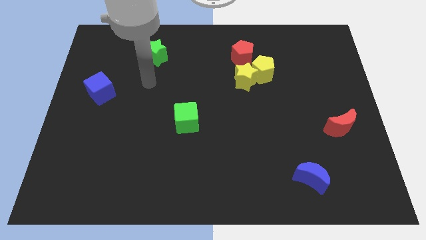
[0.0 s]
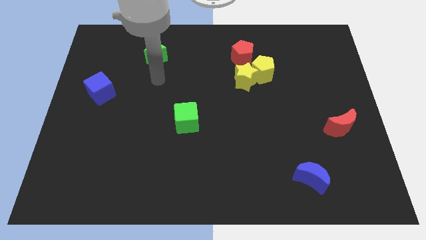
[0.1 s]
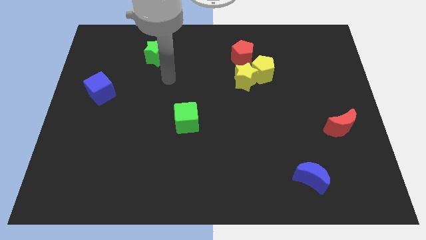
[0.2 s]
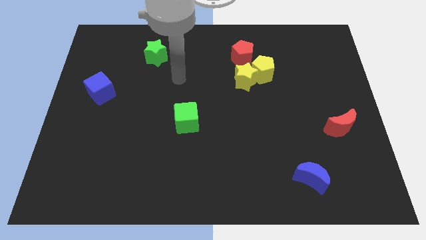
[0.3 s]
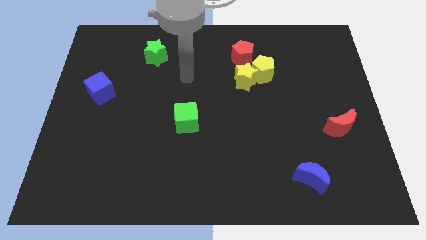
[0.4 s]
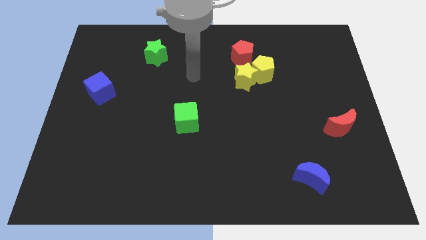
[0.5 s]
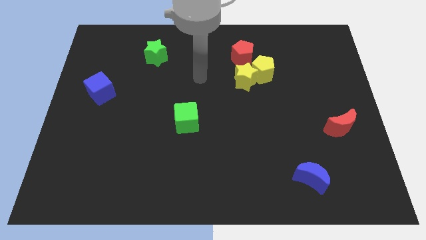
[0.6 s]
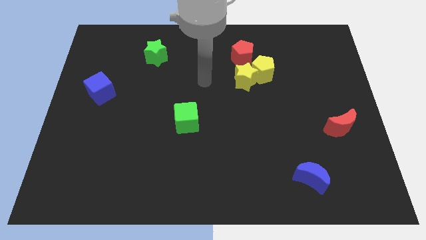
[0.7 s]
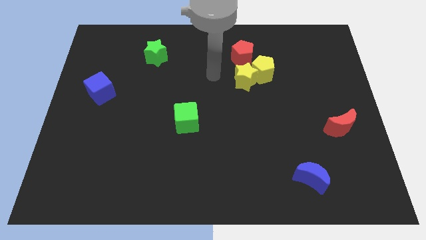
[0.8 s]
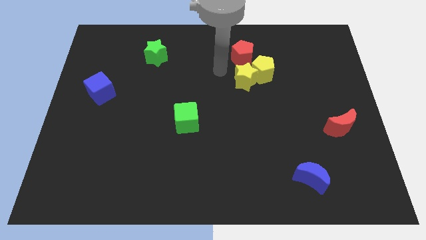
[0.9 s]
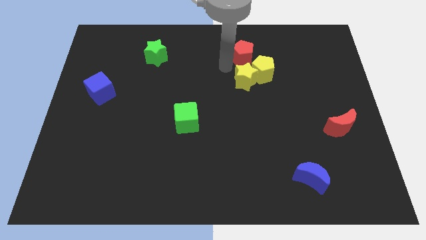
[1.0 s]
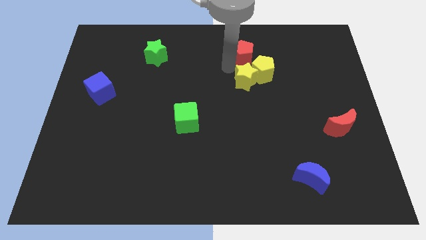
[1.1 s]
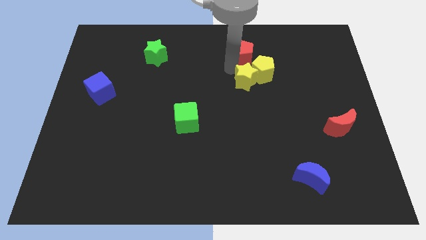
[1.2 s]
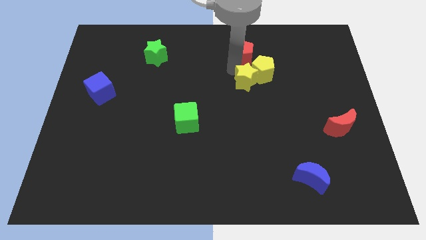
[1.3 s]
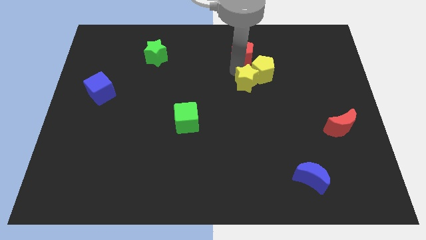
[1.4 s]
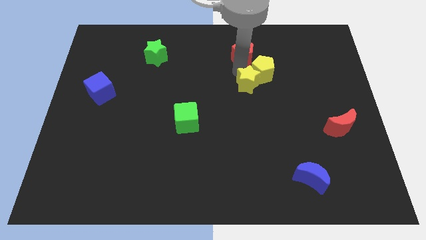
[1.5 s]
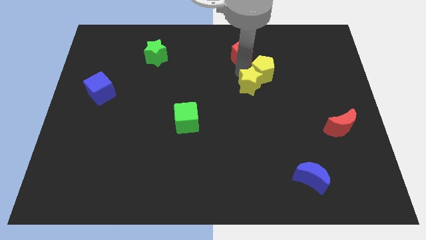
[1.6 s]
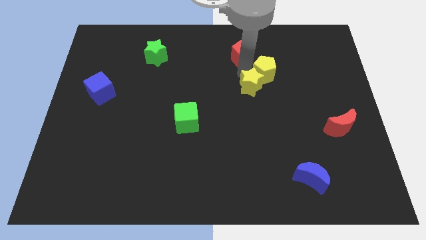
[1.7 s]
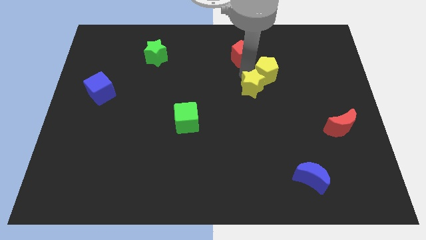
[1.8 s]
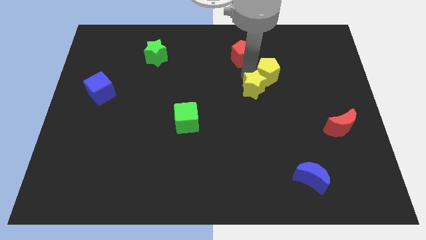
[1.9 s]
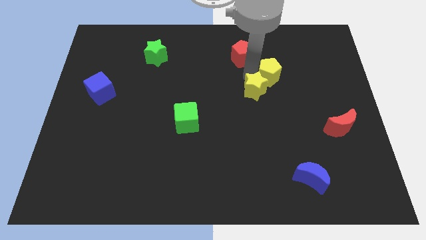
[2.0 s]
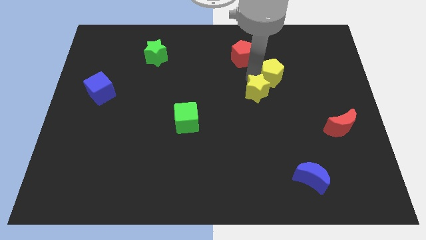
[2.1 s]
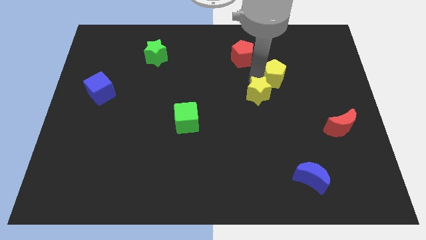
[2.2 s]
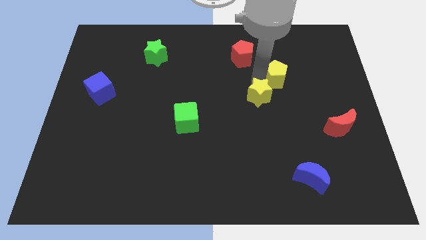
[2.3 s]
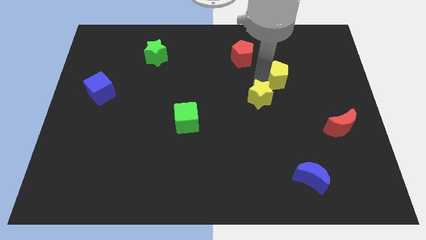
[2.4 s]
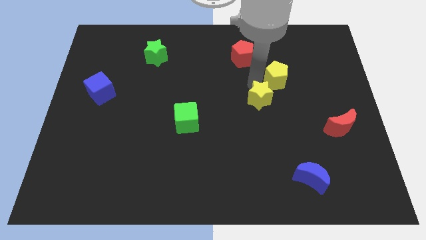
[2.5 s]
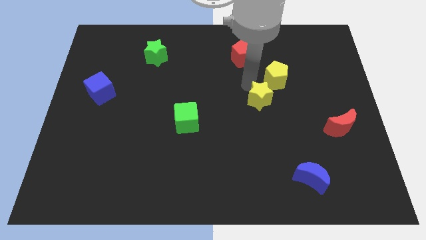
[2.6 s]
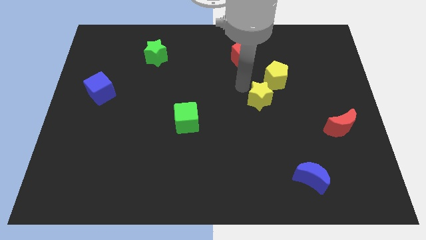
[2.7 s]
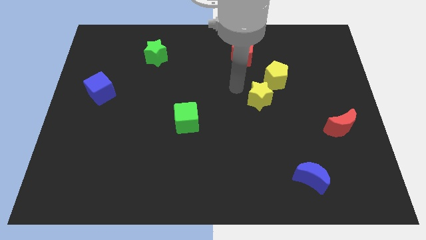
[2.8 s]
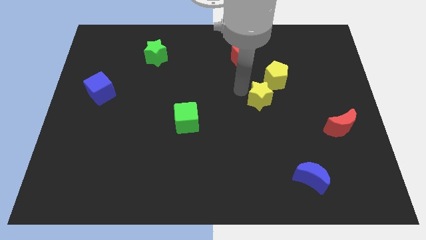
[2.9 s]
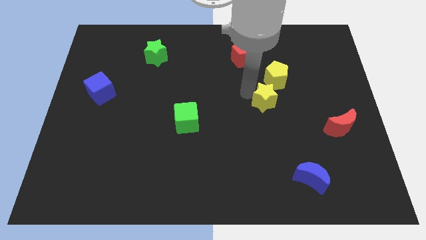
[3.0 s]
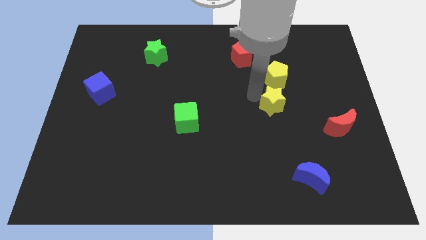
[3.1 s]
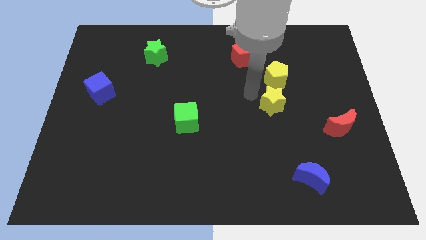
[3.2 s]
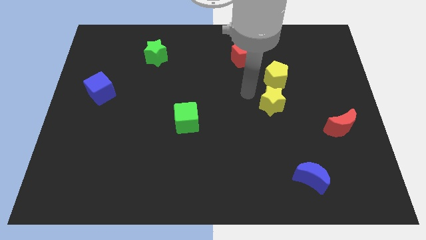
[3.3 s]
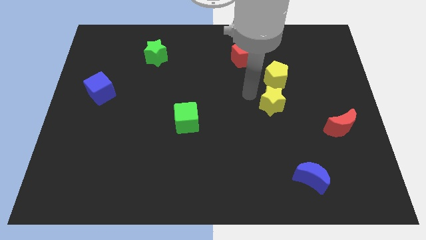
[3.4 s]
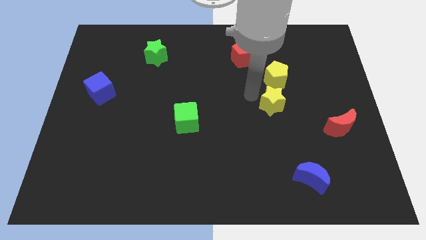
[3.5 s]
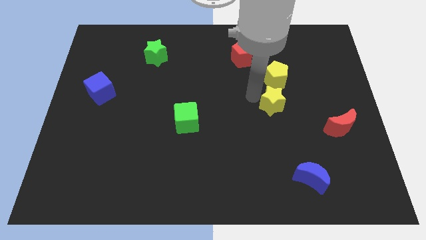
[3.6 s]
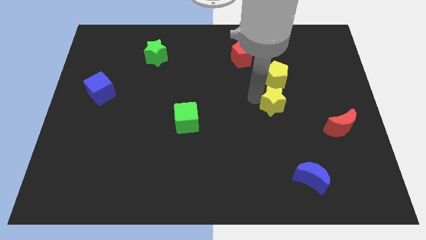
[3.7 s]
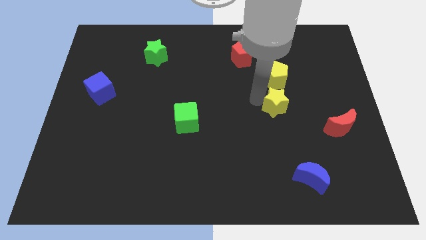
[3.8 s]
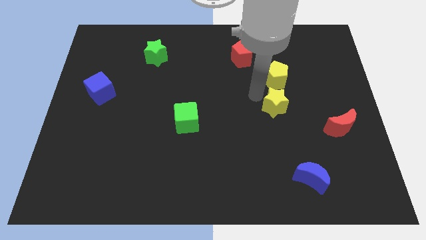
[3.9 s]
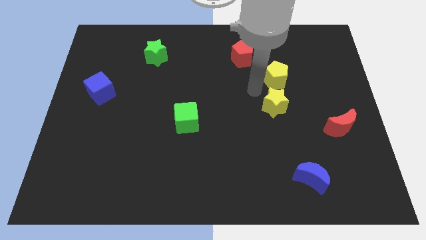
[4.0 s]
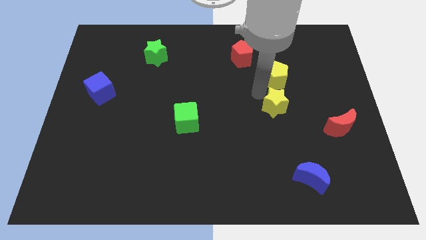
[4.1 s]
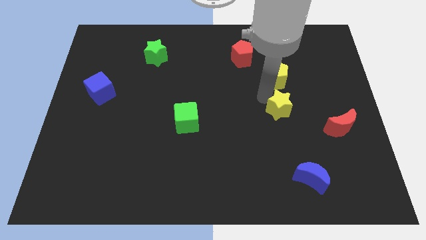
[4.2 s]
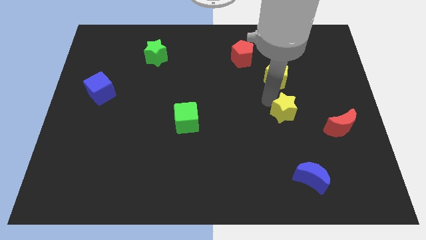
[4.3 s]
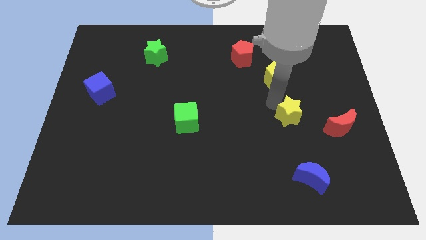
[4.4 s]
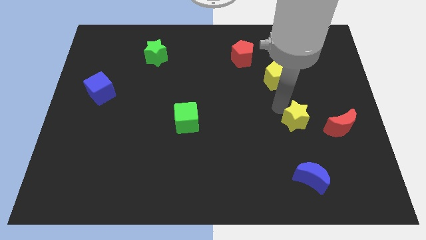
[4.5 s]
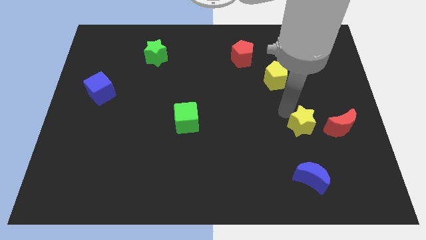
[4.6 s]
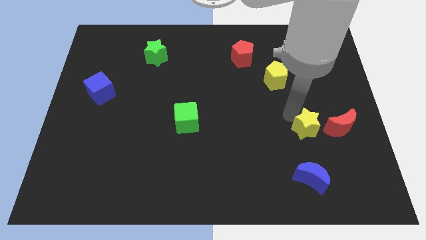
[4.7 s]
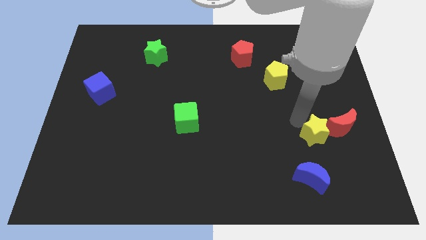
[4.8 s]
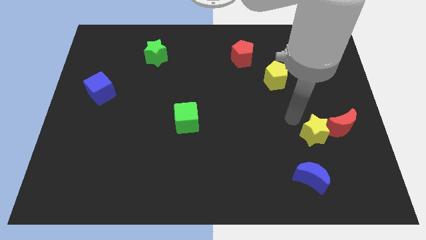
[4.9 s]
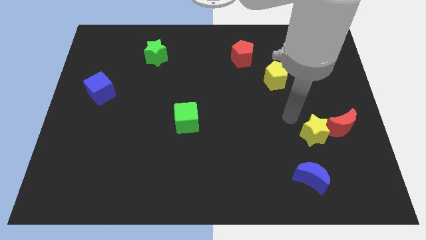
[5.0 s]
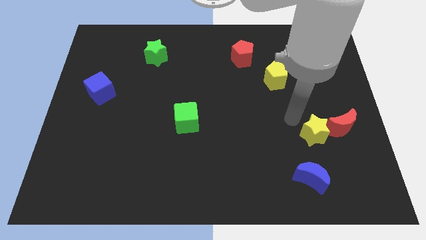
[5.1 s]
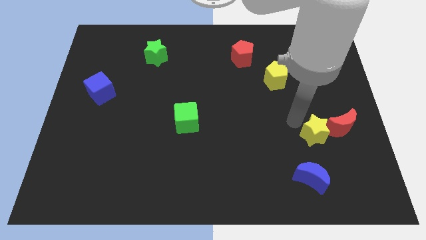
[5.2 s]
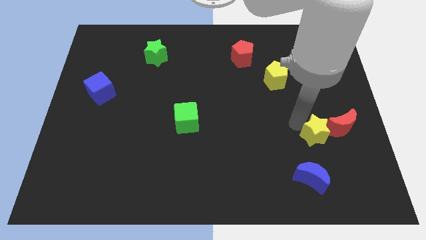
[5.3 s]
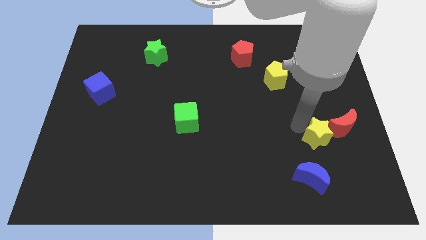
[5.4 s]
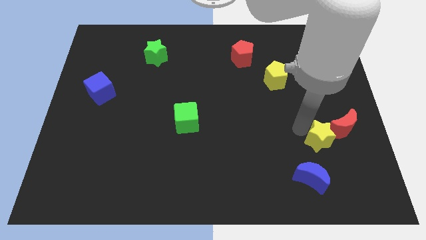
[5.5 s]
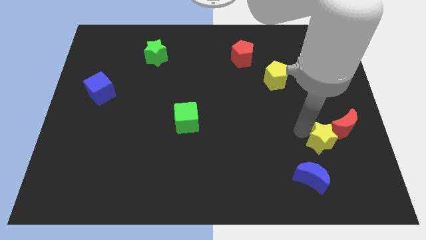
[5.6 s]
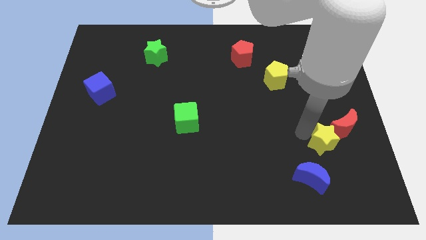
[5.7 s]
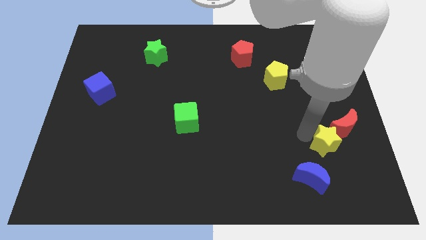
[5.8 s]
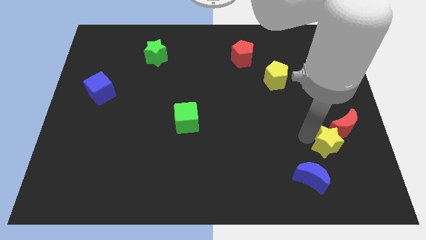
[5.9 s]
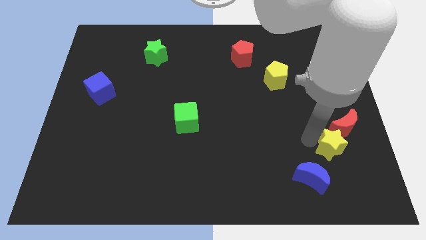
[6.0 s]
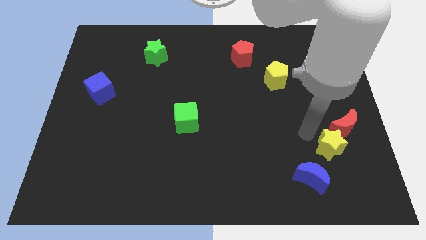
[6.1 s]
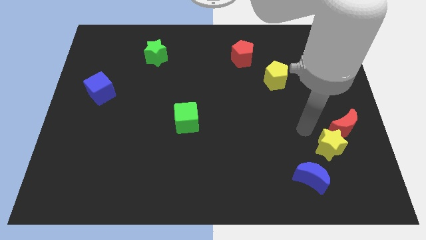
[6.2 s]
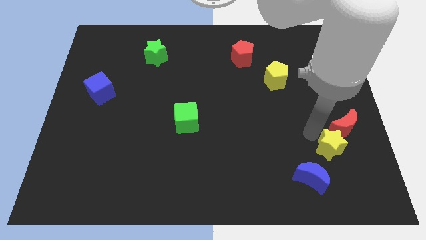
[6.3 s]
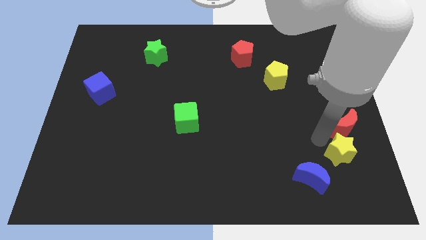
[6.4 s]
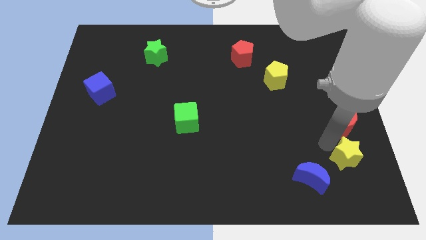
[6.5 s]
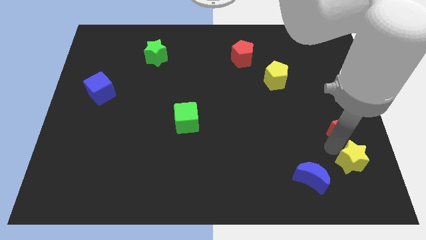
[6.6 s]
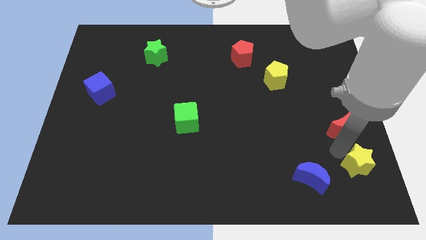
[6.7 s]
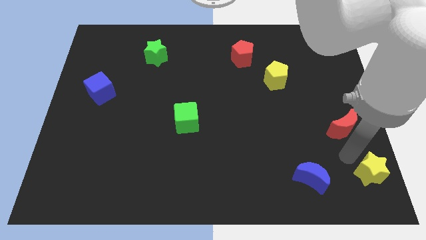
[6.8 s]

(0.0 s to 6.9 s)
move the yellow star to the bottom right
